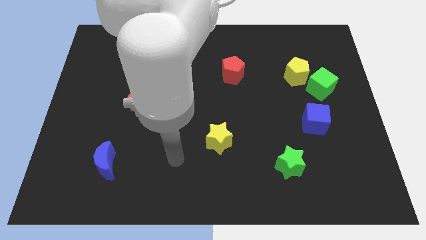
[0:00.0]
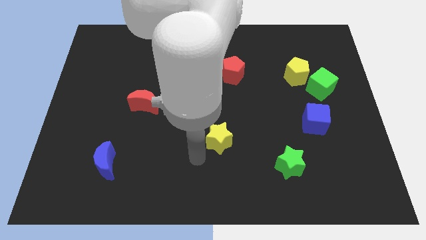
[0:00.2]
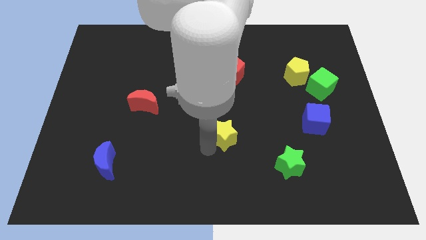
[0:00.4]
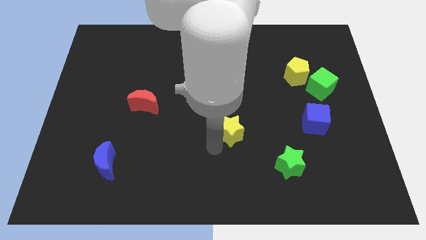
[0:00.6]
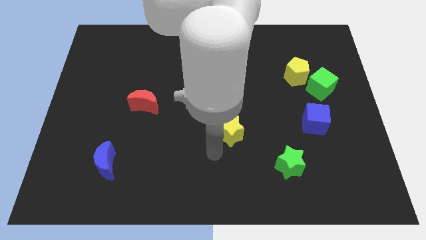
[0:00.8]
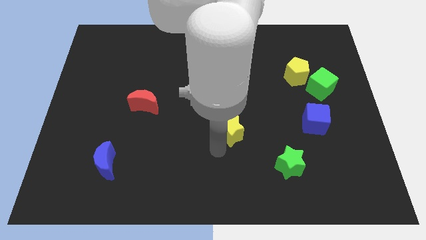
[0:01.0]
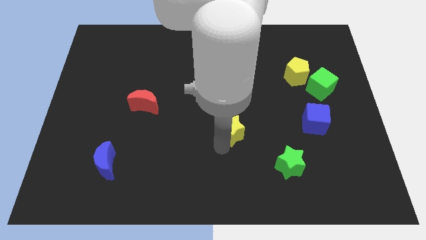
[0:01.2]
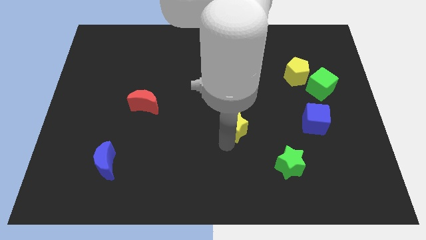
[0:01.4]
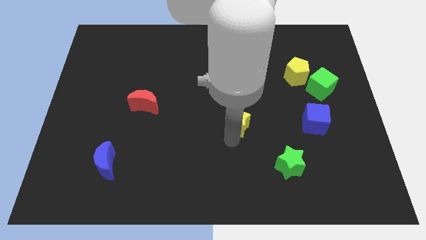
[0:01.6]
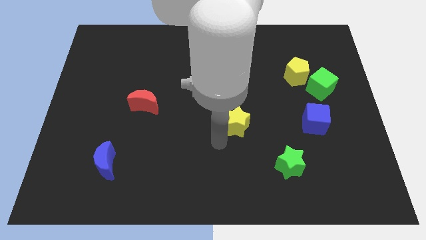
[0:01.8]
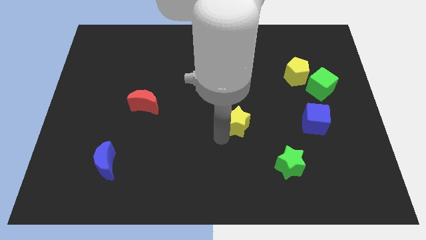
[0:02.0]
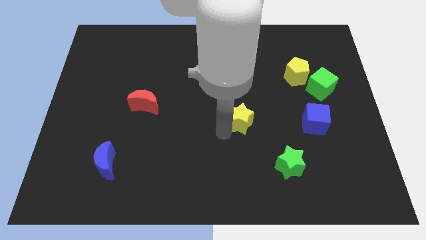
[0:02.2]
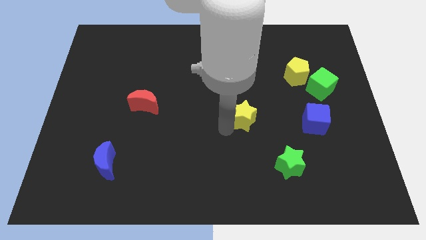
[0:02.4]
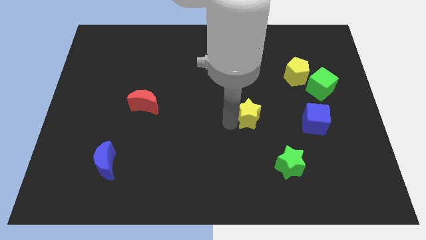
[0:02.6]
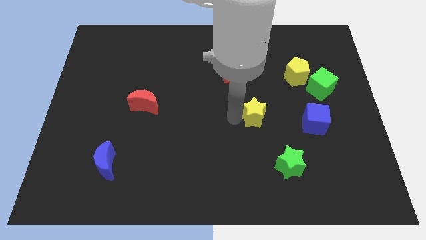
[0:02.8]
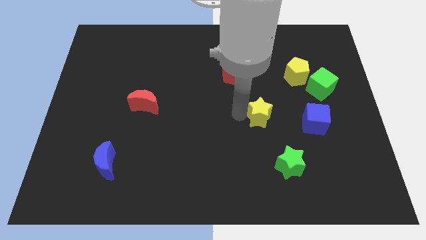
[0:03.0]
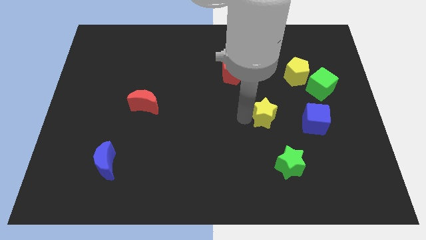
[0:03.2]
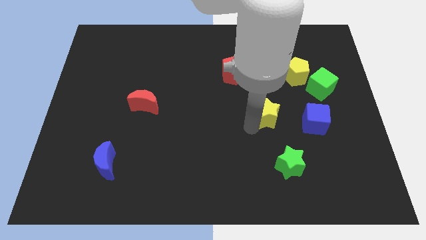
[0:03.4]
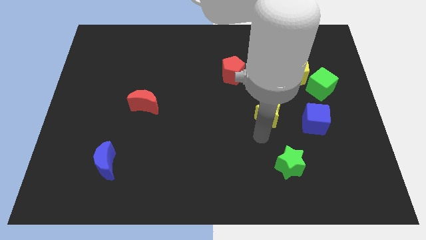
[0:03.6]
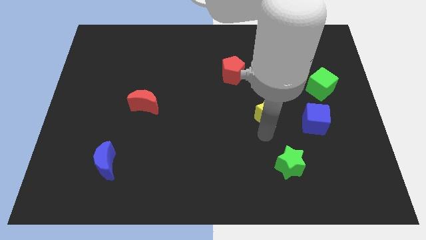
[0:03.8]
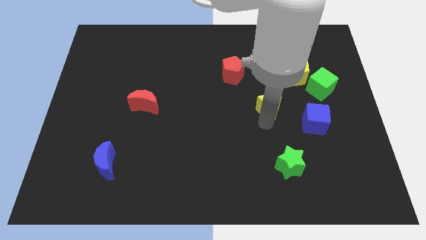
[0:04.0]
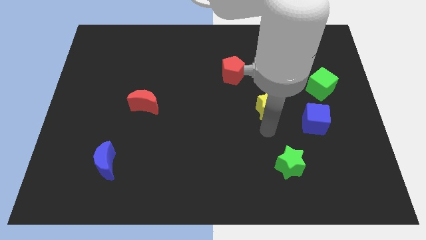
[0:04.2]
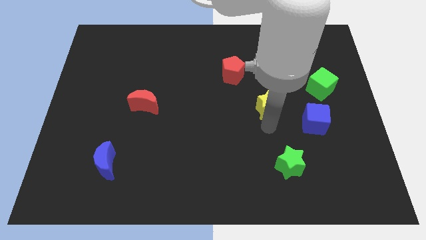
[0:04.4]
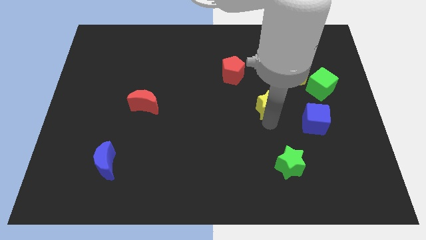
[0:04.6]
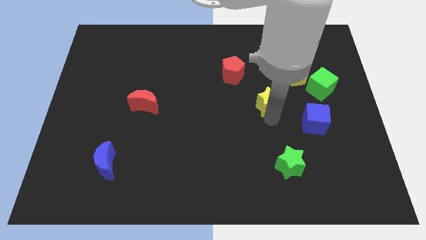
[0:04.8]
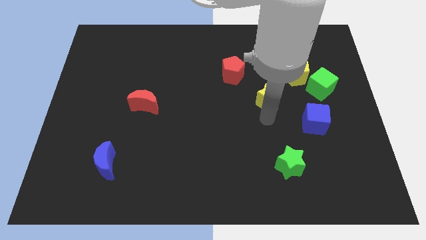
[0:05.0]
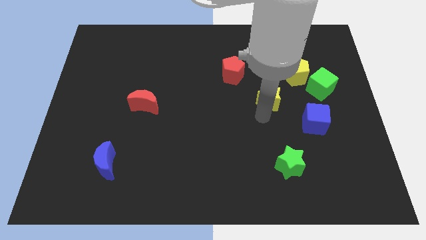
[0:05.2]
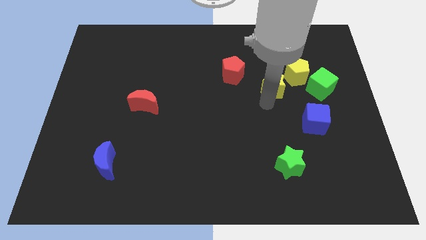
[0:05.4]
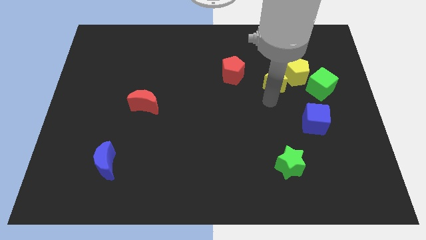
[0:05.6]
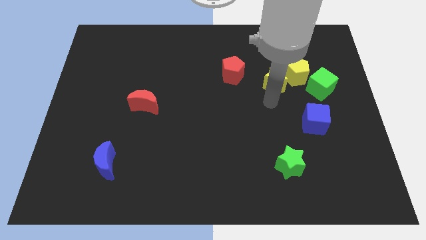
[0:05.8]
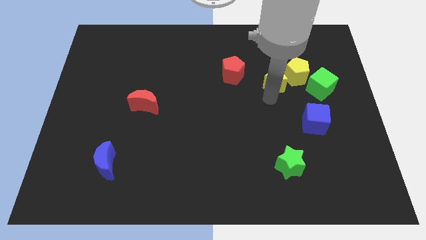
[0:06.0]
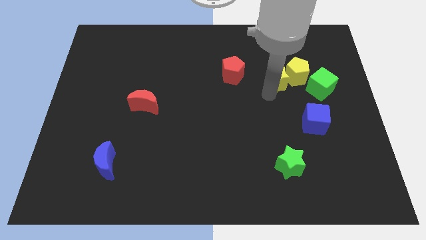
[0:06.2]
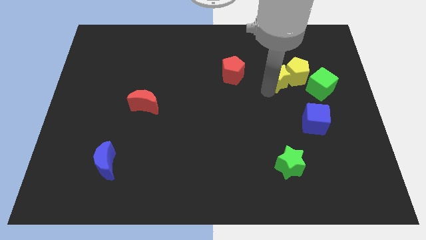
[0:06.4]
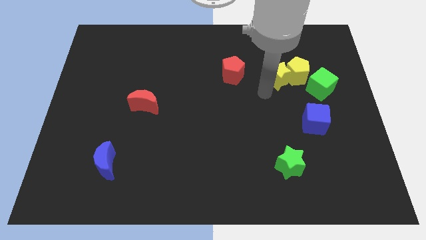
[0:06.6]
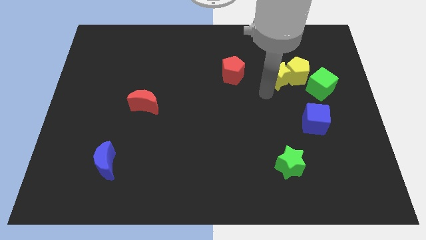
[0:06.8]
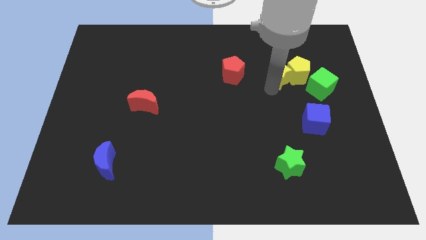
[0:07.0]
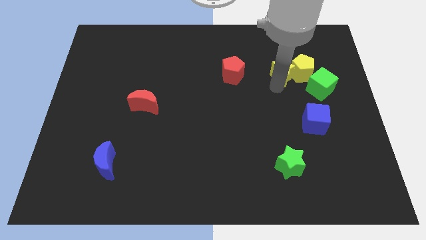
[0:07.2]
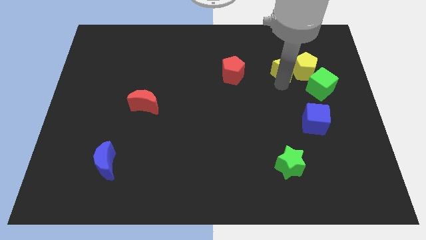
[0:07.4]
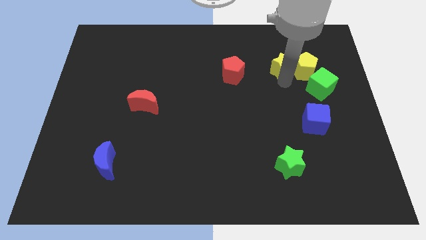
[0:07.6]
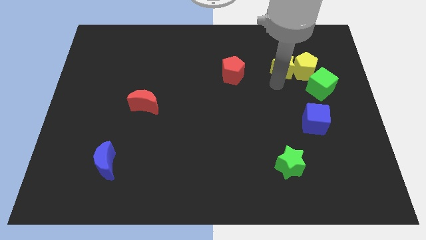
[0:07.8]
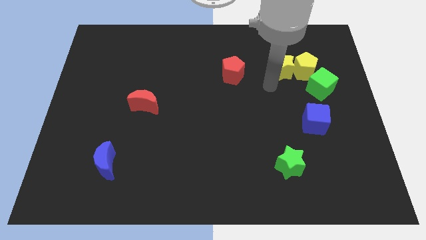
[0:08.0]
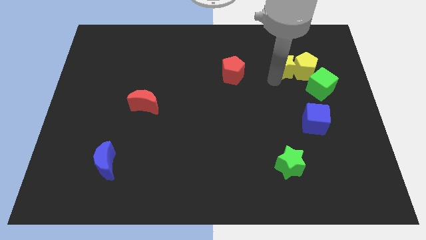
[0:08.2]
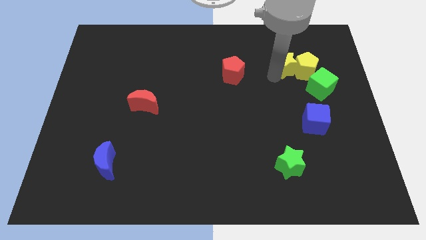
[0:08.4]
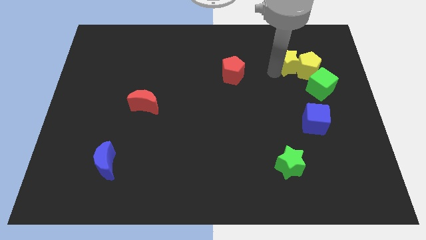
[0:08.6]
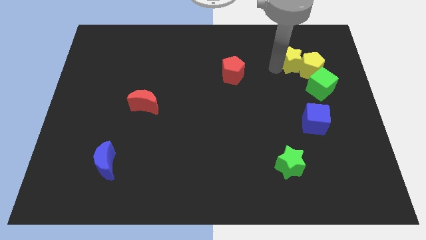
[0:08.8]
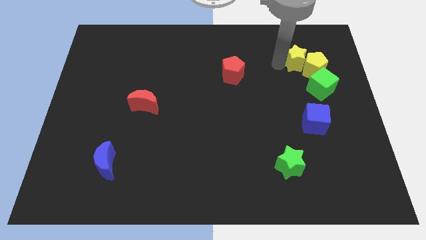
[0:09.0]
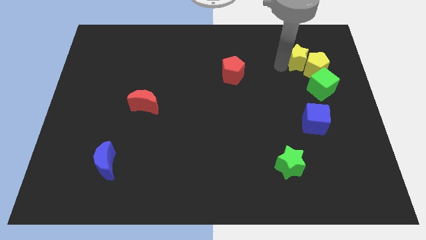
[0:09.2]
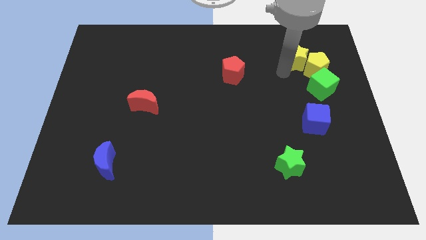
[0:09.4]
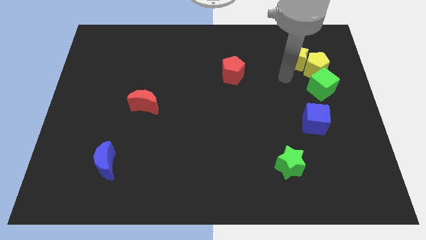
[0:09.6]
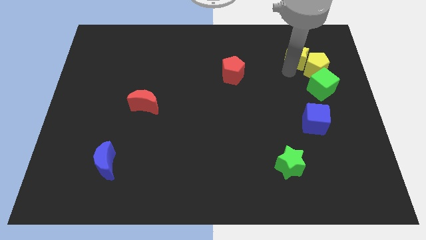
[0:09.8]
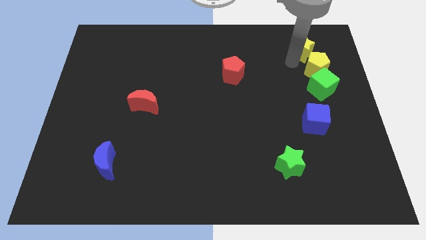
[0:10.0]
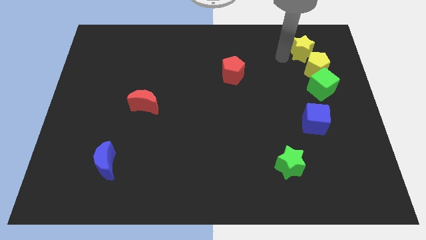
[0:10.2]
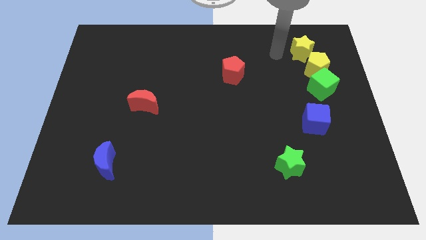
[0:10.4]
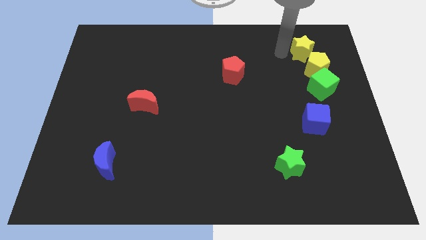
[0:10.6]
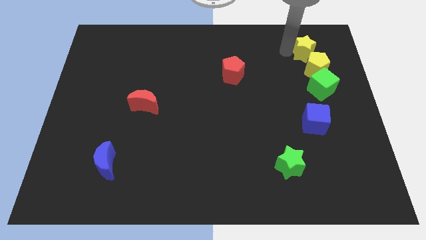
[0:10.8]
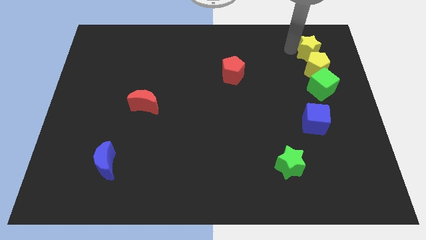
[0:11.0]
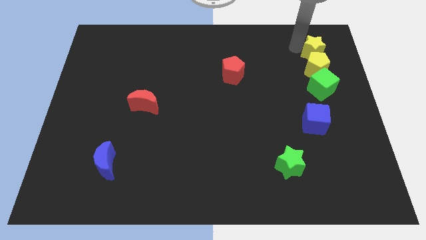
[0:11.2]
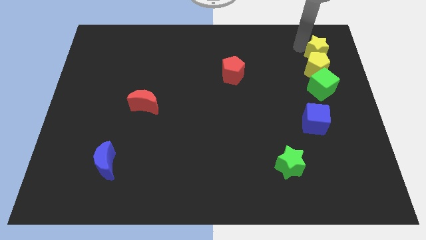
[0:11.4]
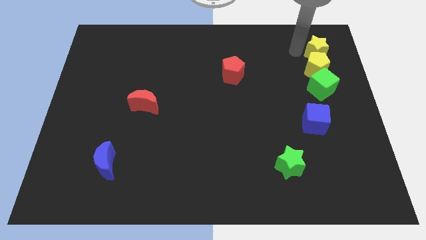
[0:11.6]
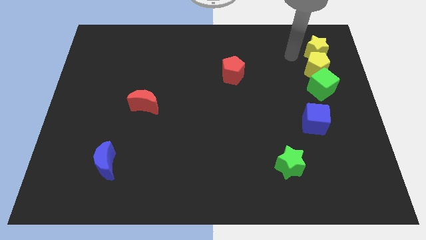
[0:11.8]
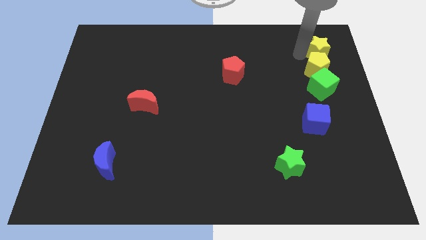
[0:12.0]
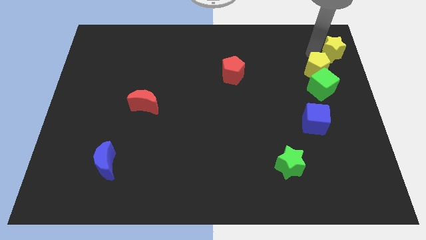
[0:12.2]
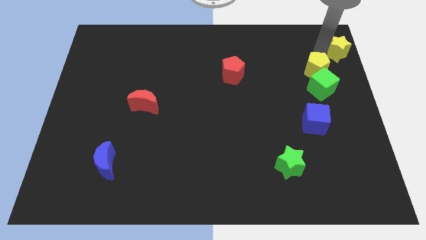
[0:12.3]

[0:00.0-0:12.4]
move the yellow star to the top right
